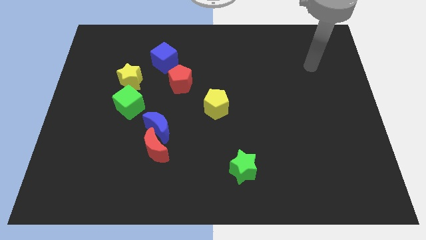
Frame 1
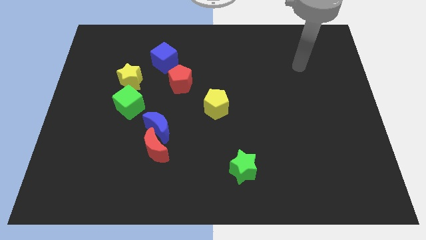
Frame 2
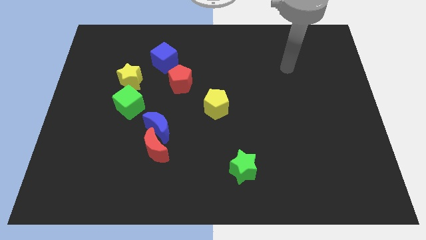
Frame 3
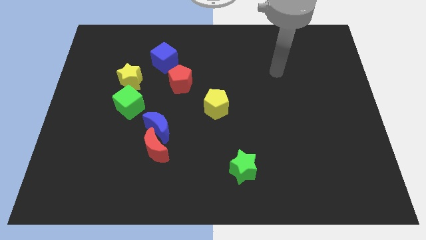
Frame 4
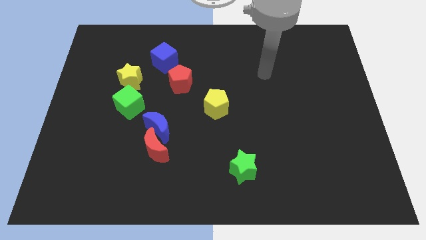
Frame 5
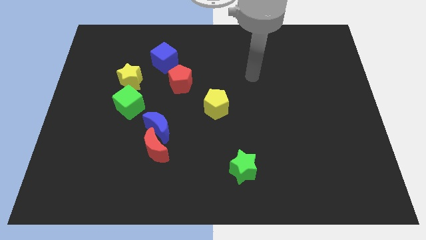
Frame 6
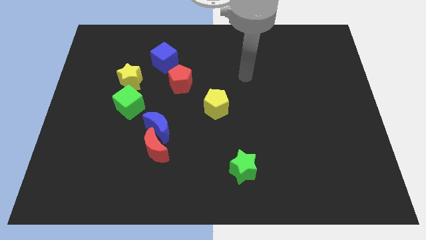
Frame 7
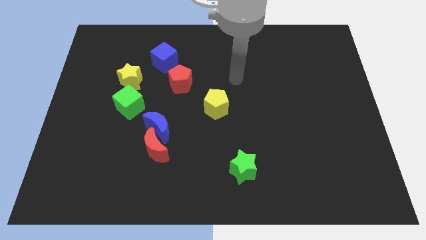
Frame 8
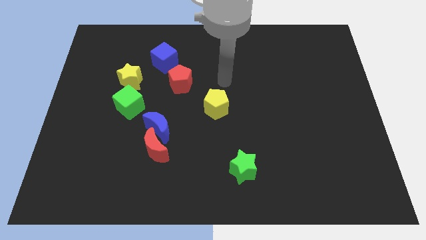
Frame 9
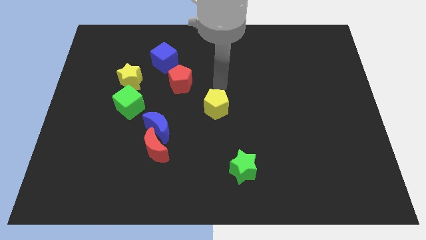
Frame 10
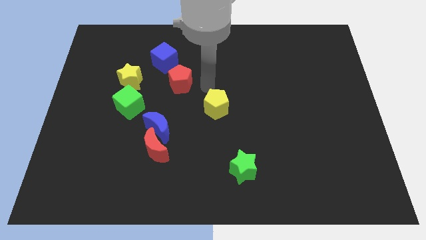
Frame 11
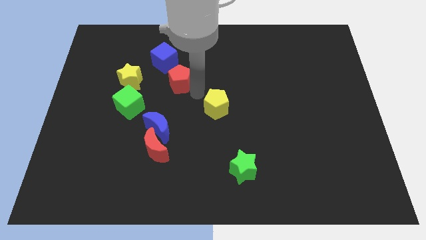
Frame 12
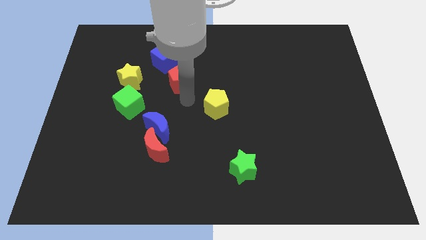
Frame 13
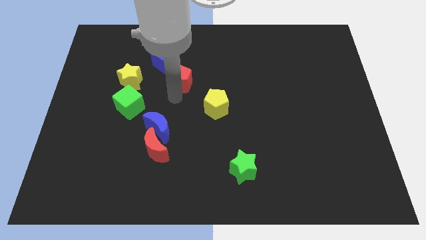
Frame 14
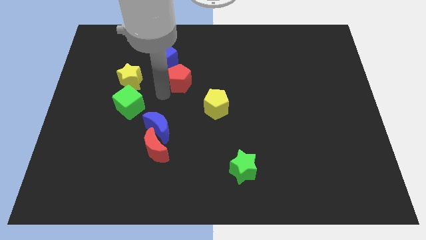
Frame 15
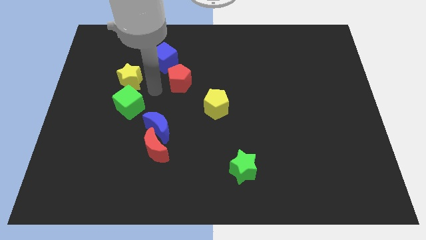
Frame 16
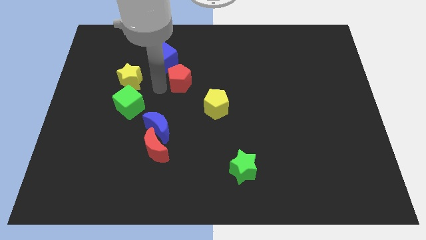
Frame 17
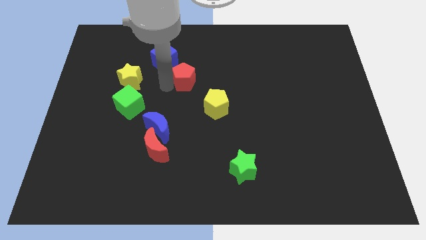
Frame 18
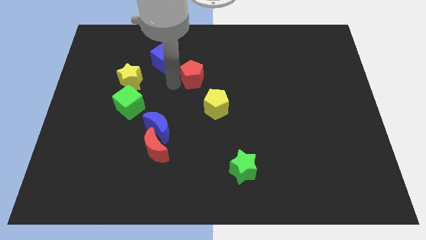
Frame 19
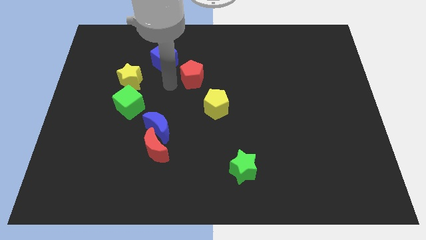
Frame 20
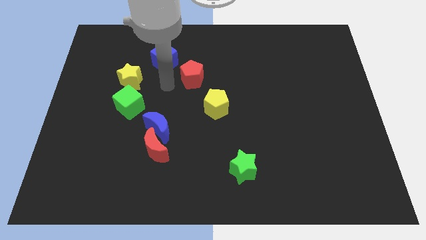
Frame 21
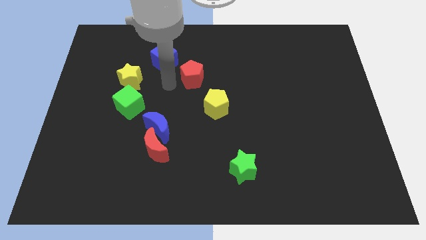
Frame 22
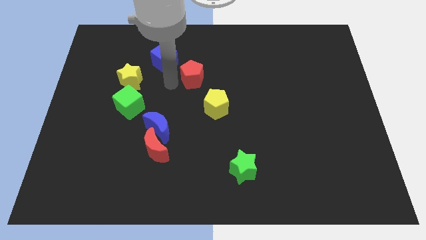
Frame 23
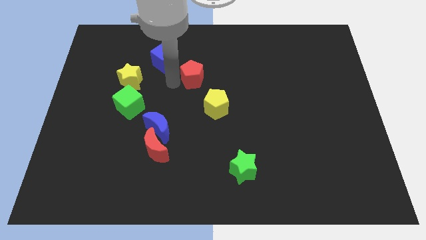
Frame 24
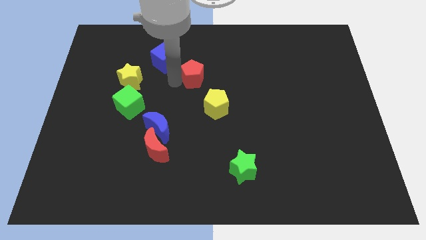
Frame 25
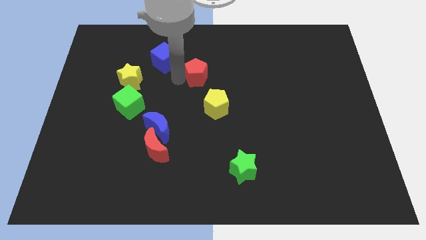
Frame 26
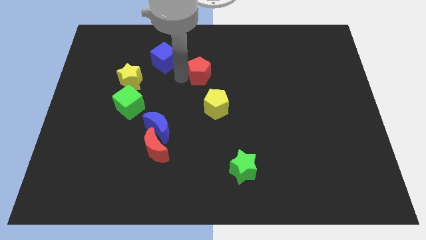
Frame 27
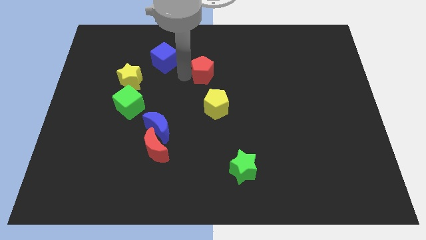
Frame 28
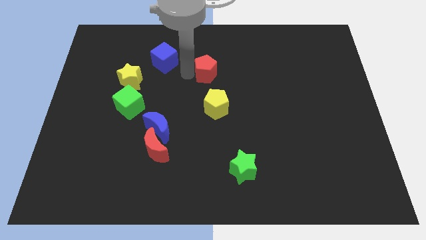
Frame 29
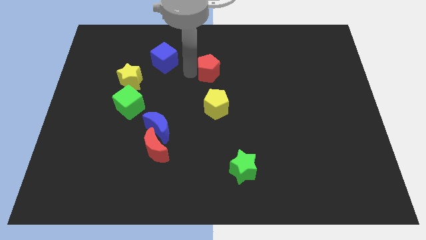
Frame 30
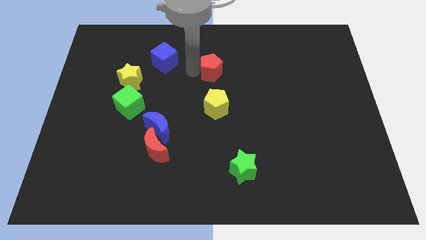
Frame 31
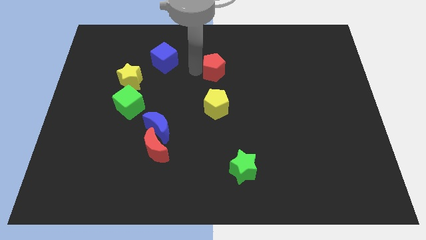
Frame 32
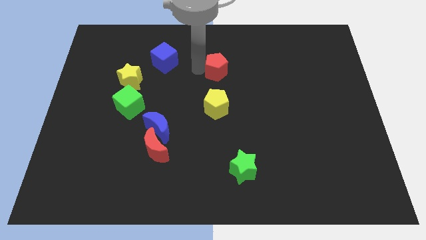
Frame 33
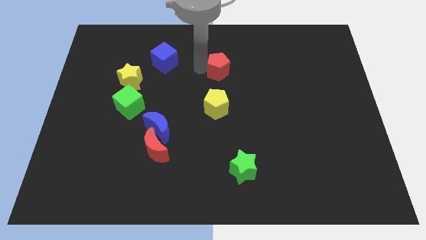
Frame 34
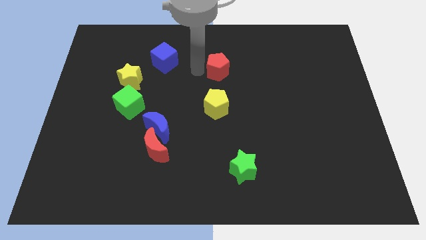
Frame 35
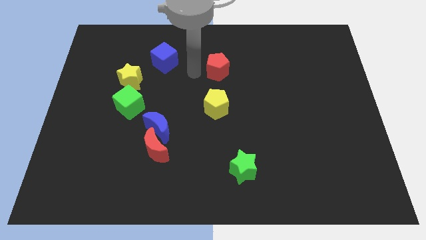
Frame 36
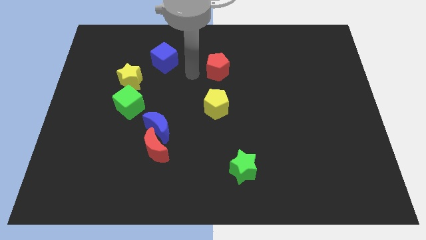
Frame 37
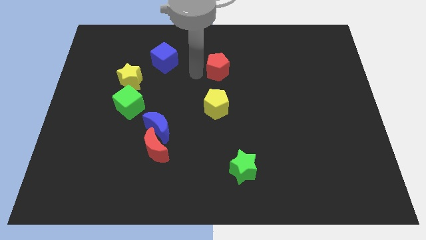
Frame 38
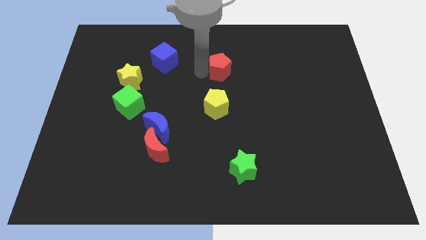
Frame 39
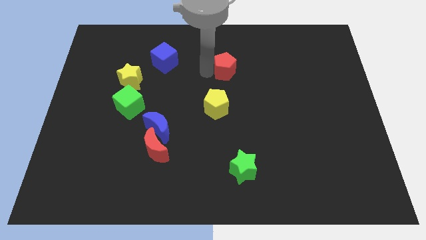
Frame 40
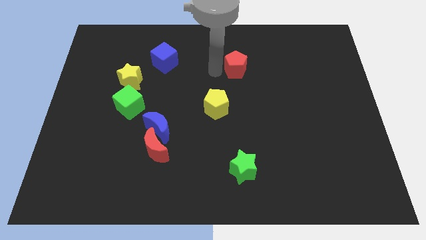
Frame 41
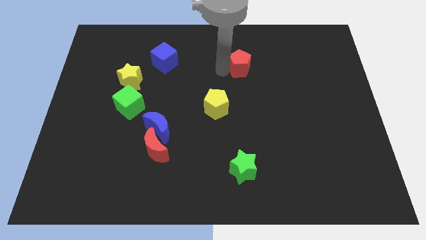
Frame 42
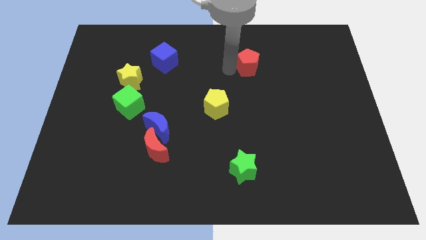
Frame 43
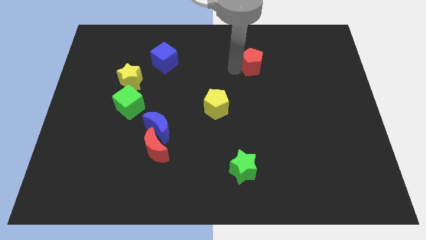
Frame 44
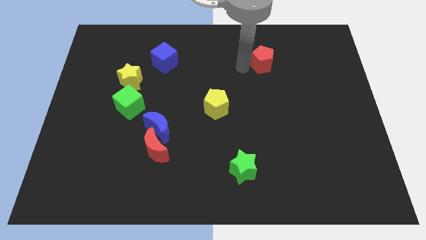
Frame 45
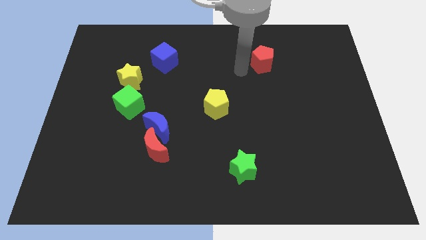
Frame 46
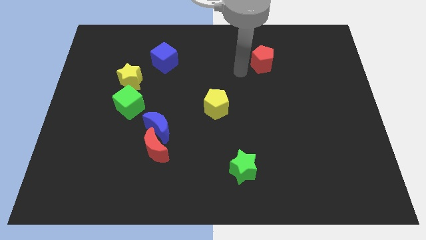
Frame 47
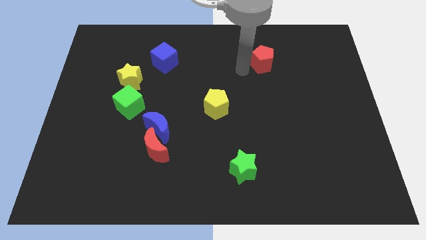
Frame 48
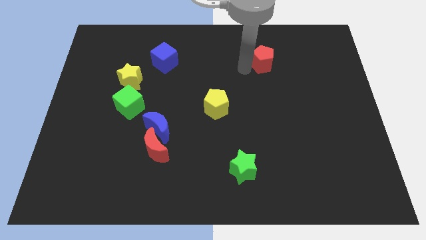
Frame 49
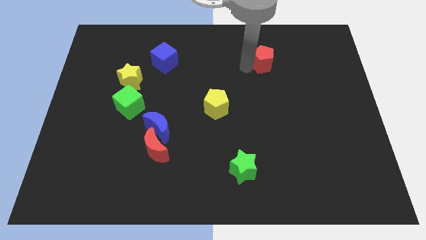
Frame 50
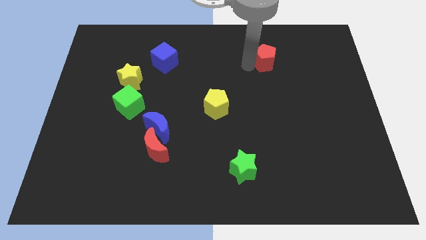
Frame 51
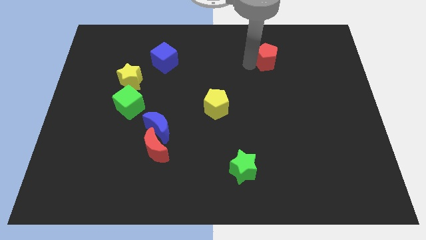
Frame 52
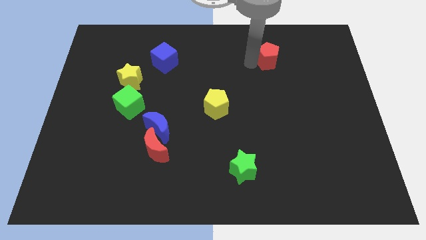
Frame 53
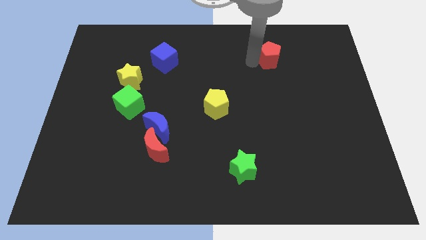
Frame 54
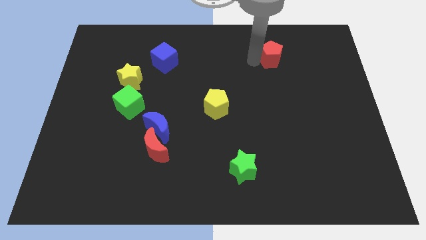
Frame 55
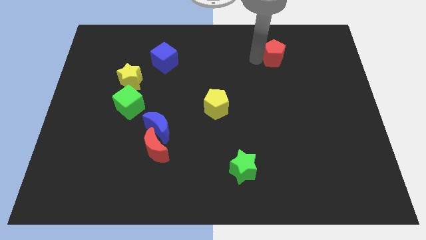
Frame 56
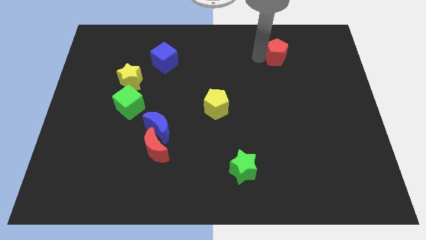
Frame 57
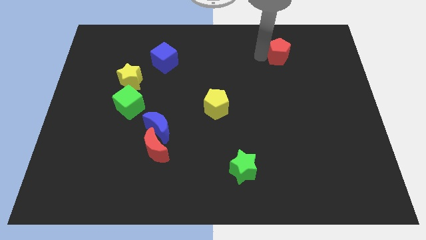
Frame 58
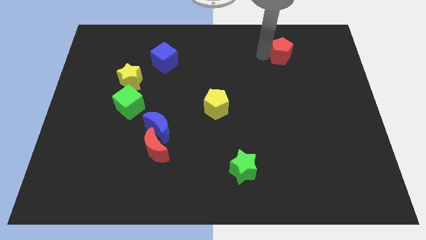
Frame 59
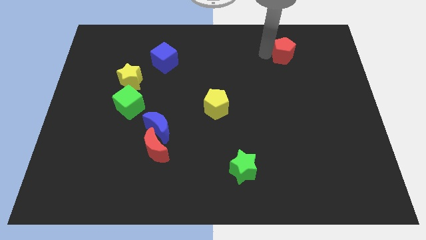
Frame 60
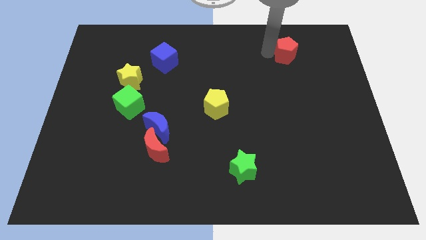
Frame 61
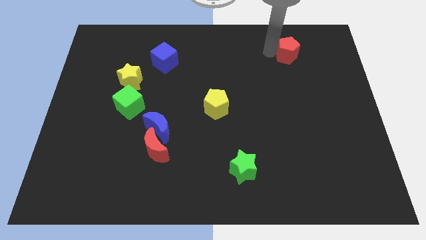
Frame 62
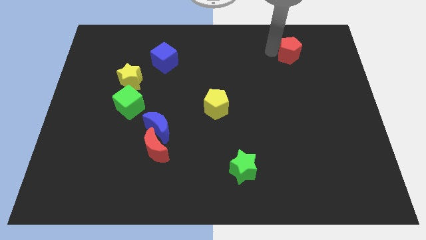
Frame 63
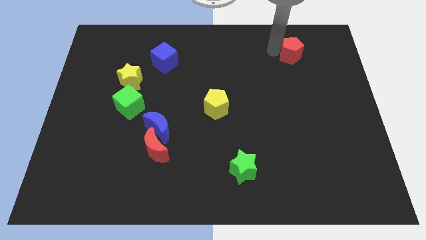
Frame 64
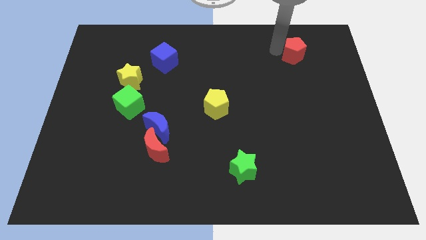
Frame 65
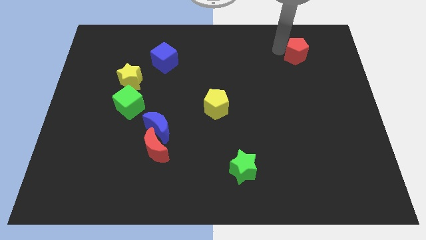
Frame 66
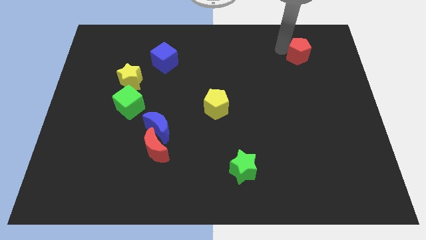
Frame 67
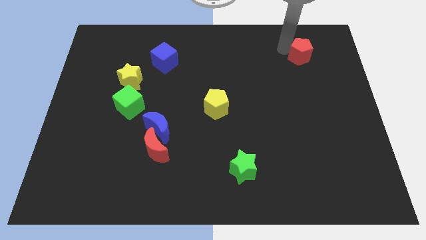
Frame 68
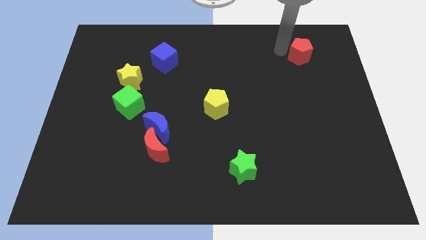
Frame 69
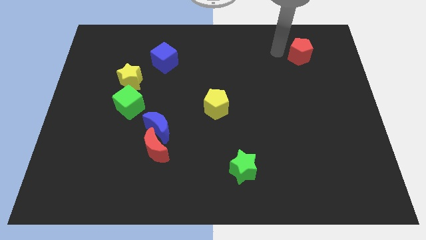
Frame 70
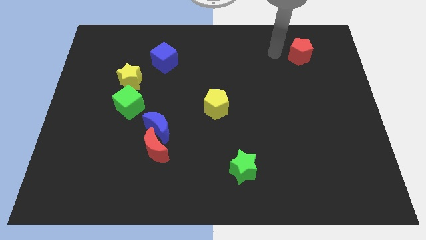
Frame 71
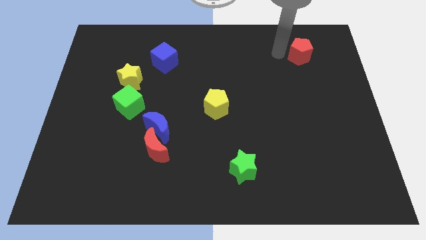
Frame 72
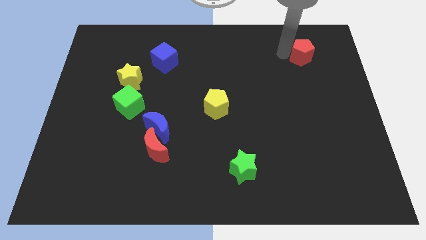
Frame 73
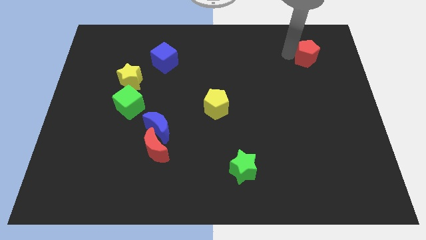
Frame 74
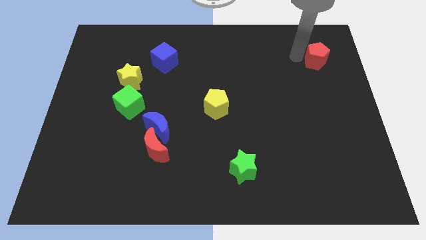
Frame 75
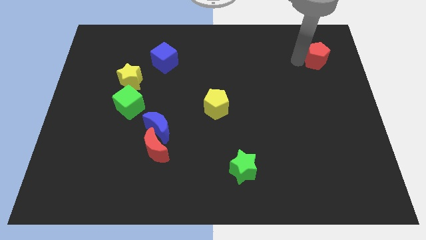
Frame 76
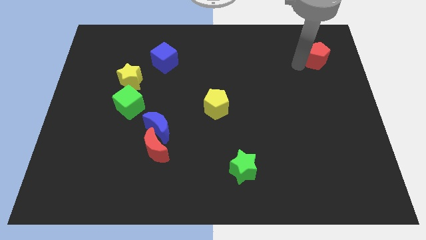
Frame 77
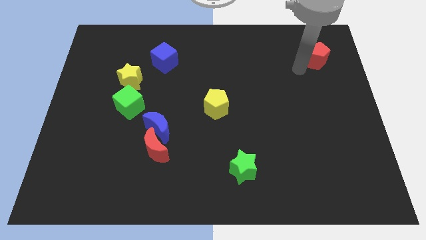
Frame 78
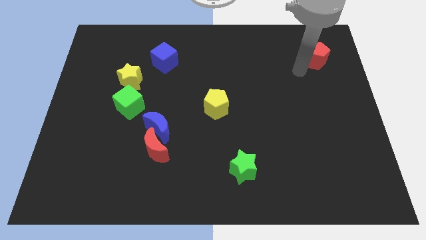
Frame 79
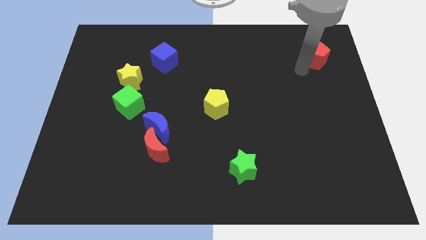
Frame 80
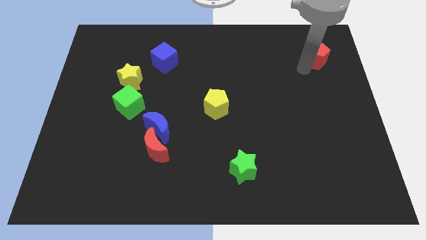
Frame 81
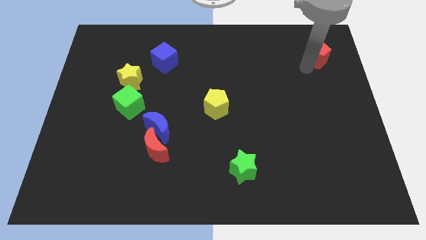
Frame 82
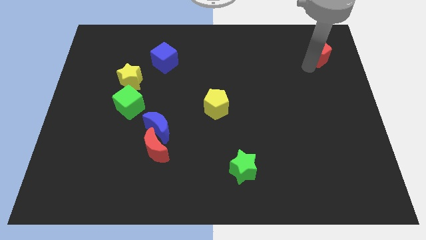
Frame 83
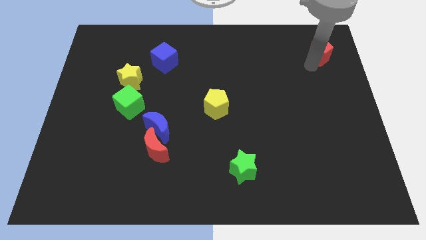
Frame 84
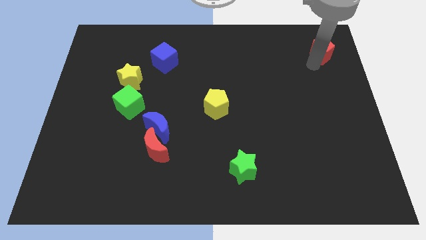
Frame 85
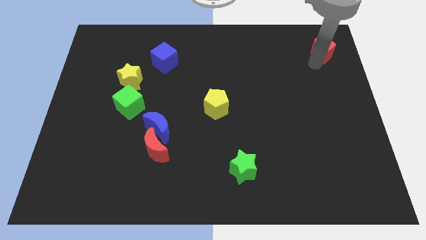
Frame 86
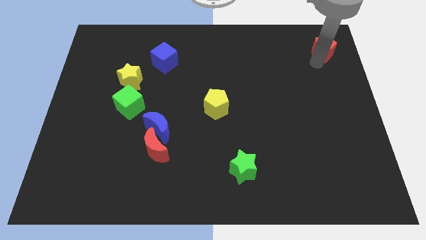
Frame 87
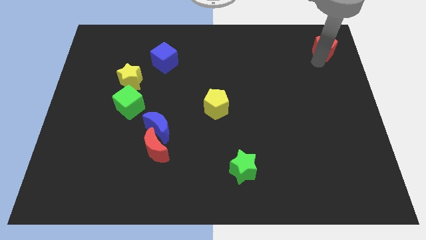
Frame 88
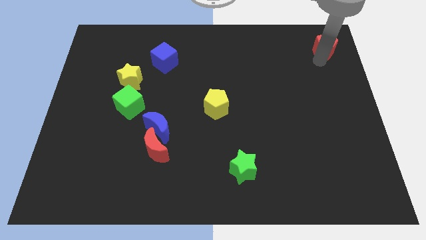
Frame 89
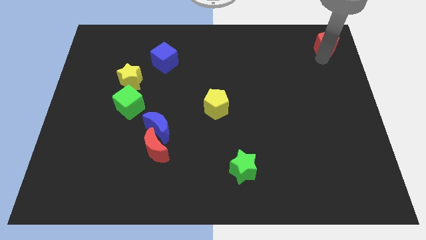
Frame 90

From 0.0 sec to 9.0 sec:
put the red pentagon to the upper right corner
